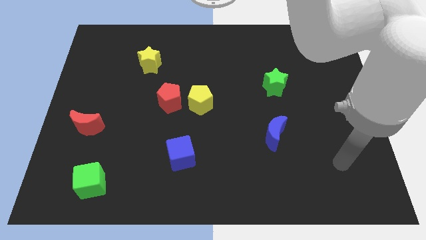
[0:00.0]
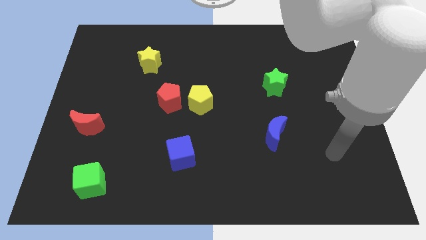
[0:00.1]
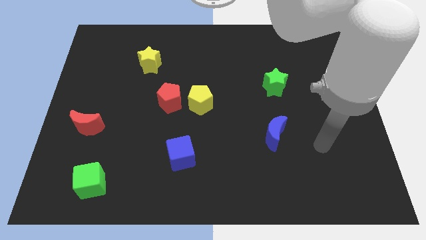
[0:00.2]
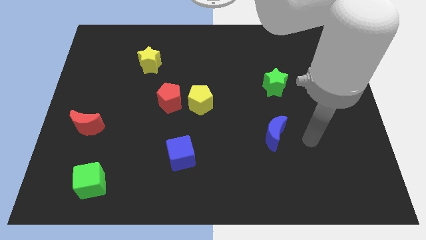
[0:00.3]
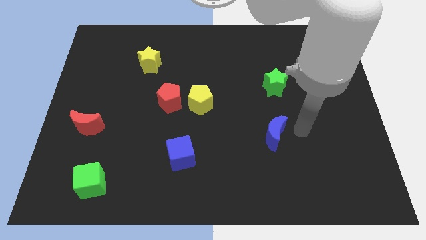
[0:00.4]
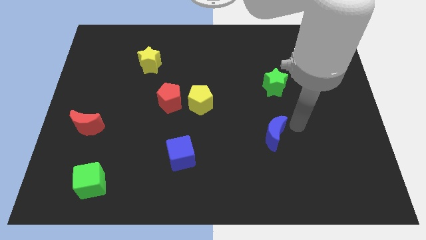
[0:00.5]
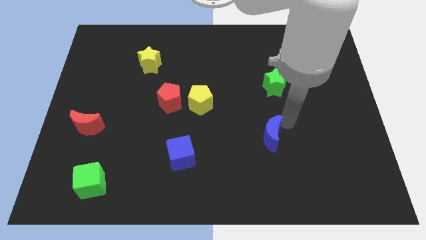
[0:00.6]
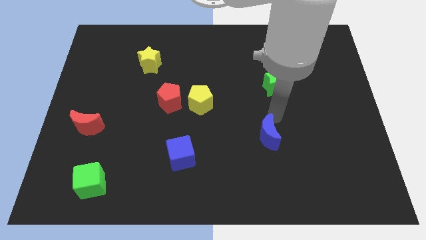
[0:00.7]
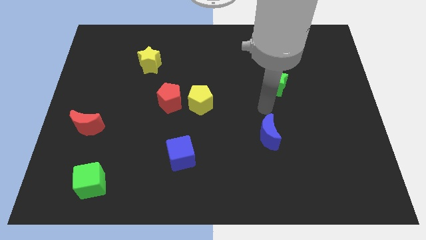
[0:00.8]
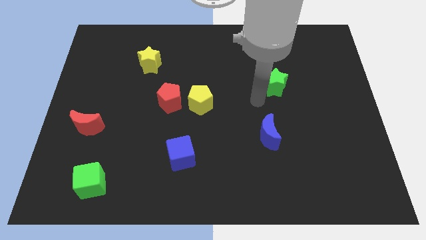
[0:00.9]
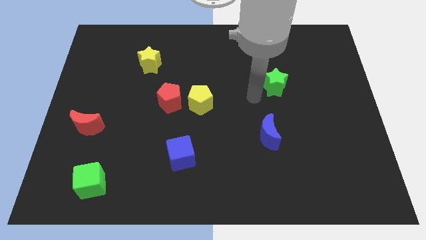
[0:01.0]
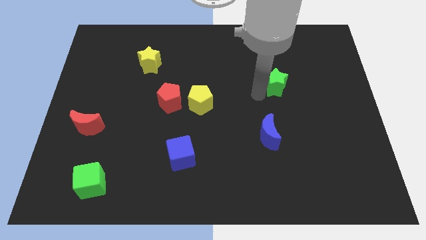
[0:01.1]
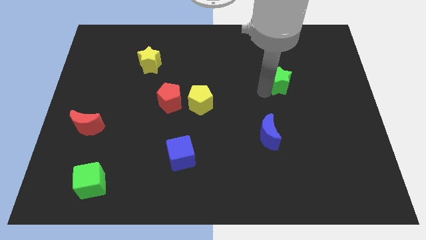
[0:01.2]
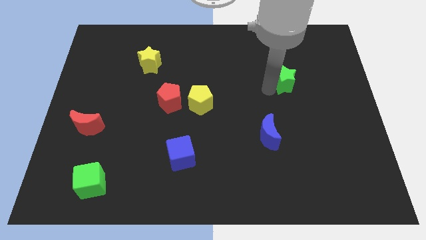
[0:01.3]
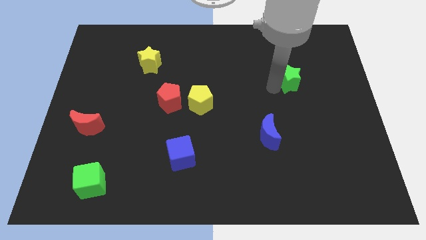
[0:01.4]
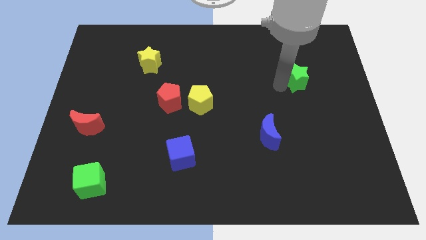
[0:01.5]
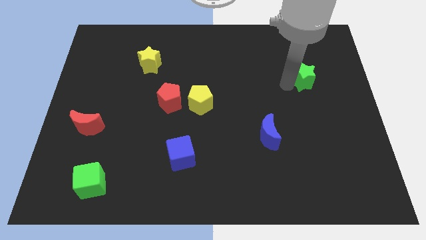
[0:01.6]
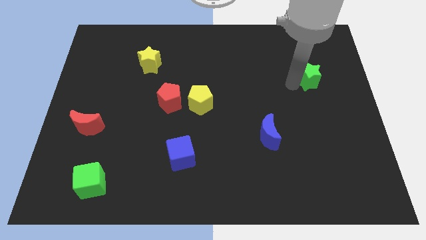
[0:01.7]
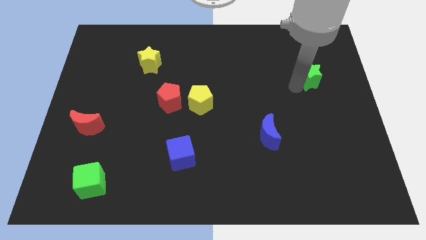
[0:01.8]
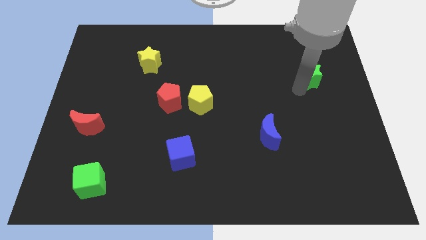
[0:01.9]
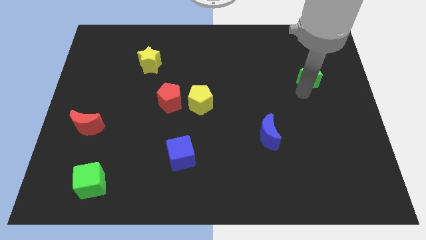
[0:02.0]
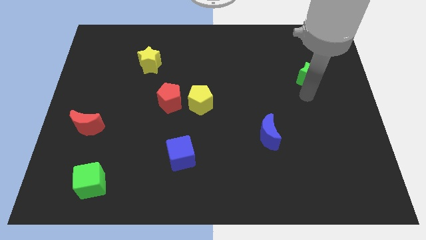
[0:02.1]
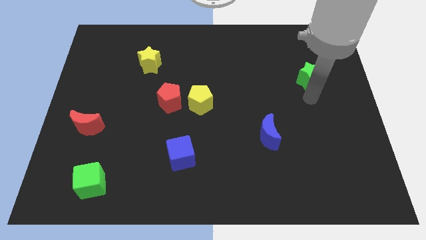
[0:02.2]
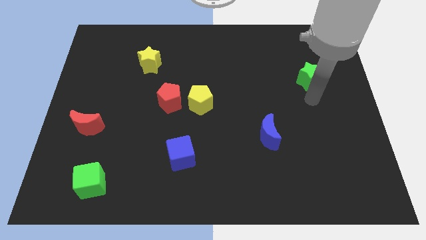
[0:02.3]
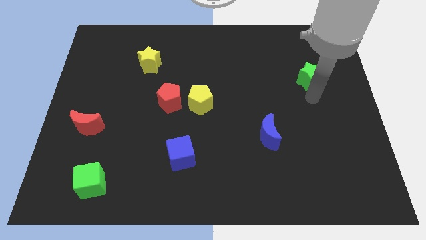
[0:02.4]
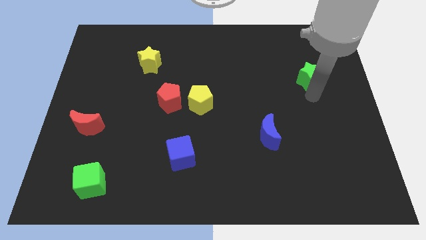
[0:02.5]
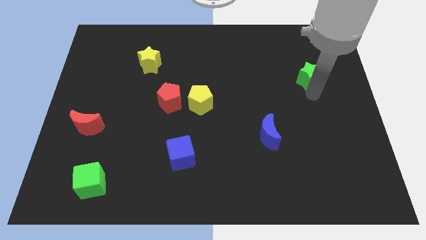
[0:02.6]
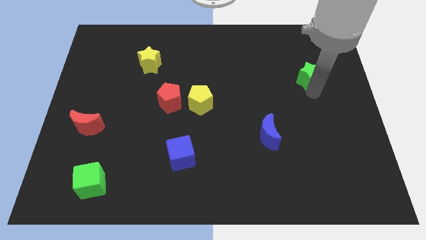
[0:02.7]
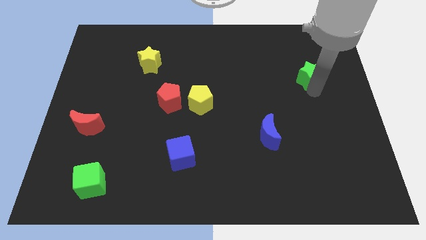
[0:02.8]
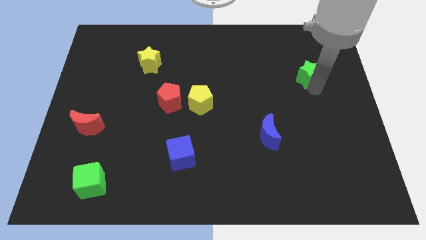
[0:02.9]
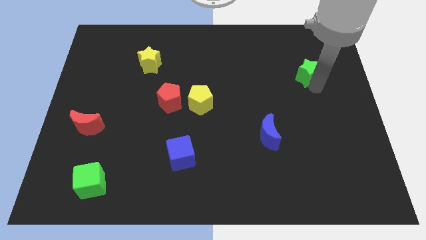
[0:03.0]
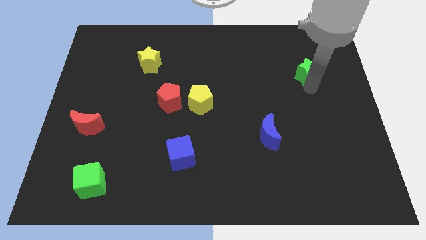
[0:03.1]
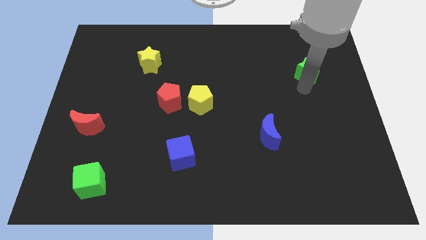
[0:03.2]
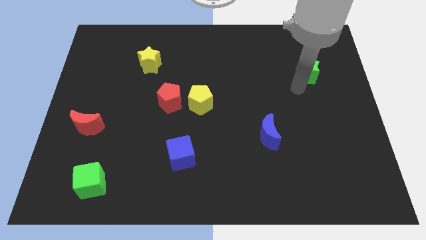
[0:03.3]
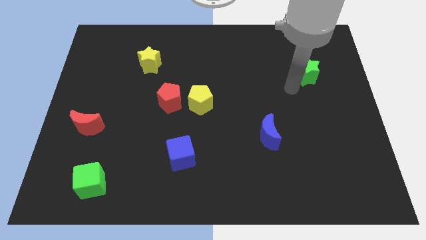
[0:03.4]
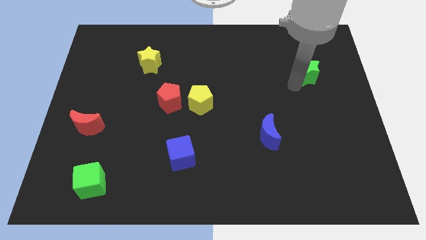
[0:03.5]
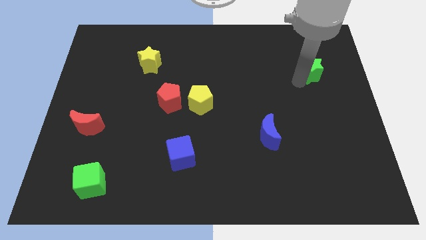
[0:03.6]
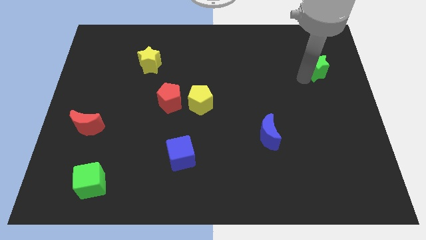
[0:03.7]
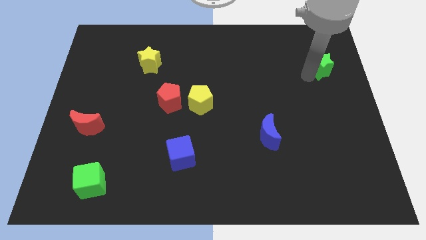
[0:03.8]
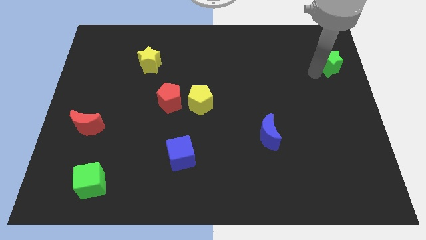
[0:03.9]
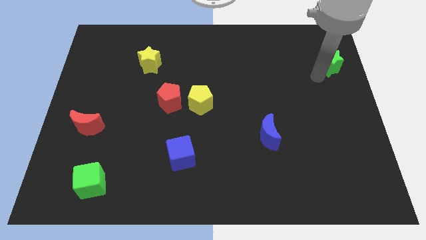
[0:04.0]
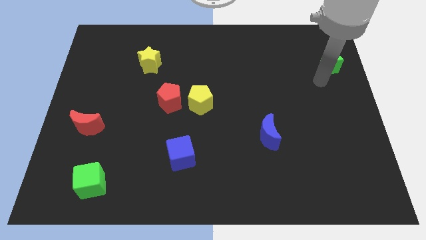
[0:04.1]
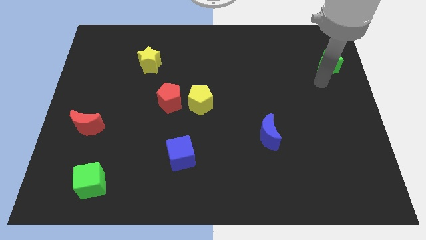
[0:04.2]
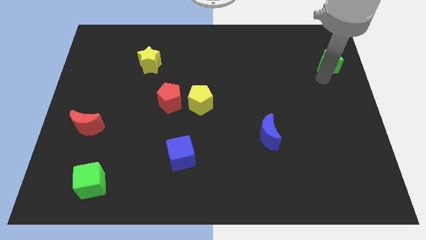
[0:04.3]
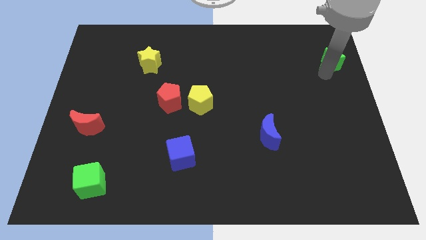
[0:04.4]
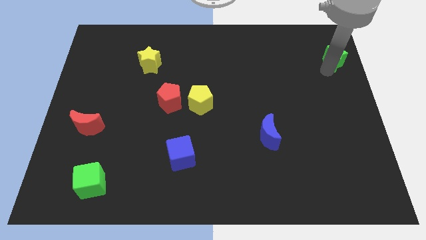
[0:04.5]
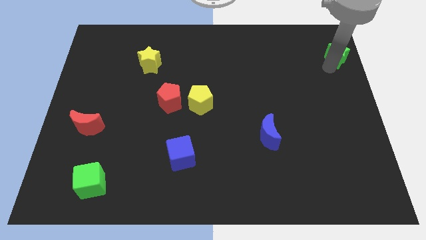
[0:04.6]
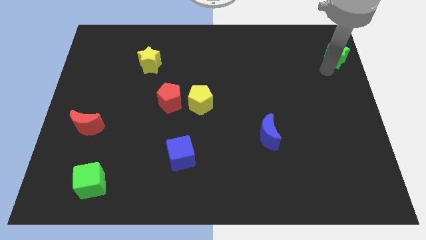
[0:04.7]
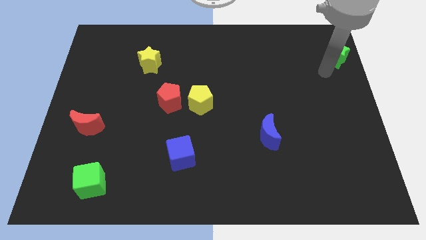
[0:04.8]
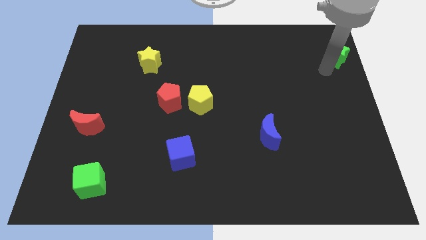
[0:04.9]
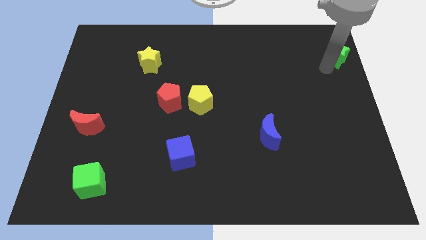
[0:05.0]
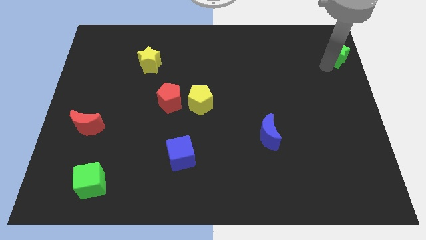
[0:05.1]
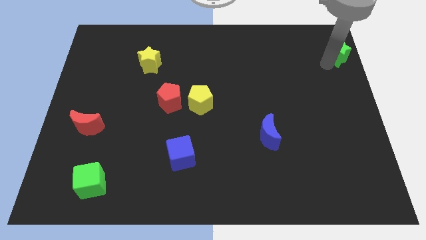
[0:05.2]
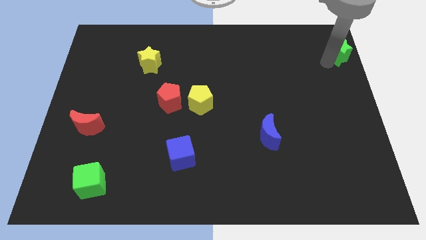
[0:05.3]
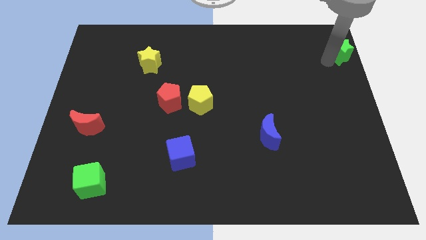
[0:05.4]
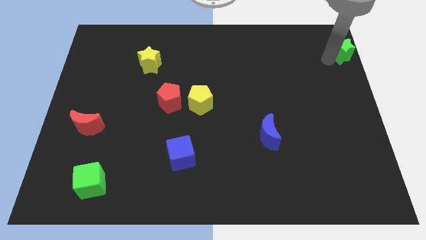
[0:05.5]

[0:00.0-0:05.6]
push the green star to the top right
